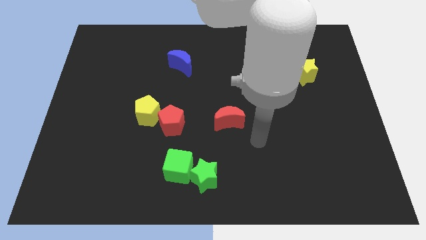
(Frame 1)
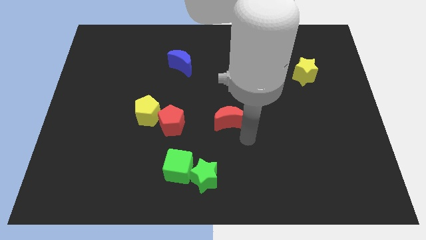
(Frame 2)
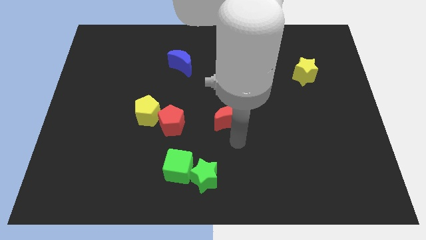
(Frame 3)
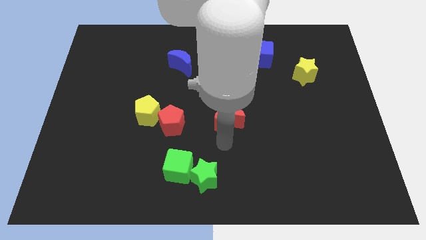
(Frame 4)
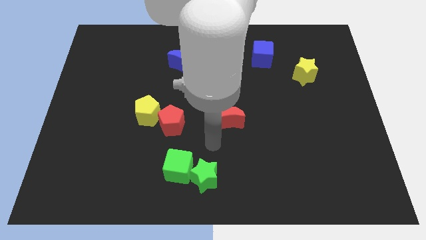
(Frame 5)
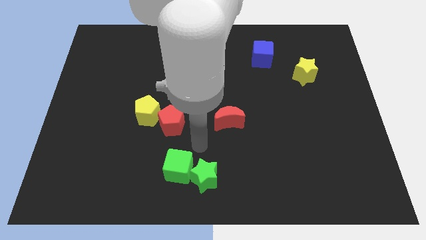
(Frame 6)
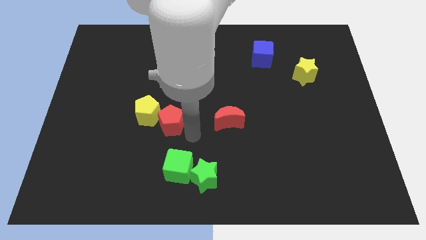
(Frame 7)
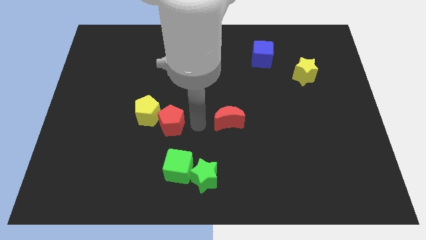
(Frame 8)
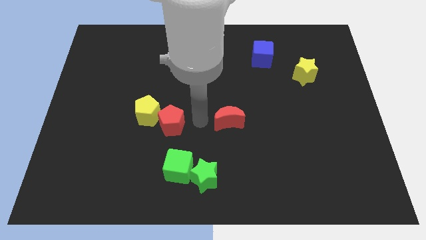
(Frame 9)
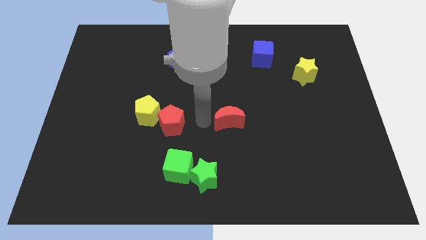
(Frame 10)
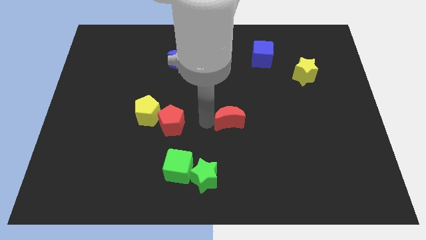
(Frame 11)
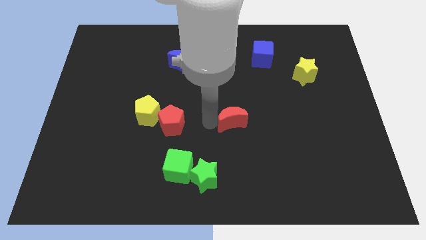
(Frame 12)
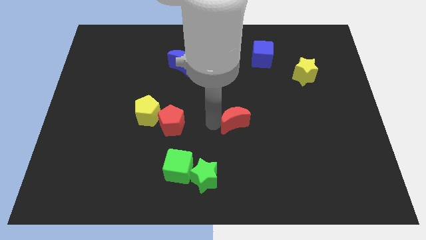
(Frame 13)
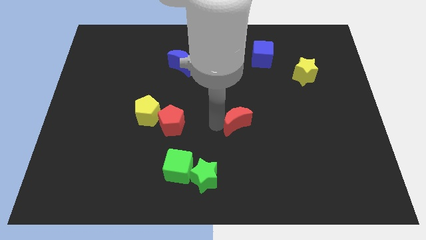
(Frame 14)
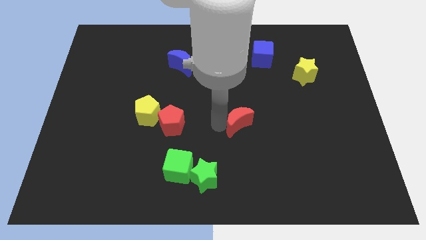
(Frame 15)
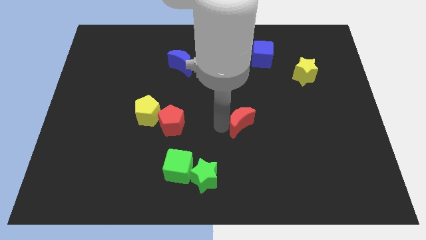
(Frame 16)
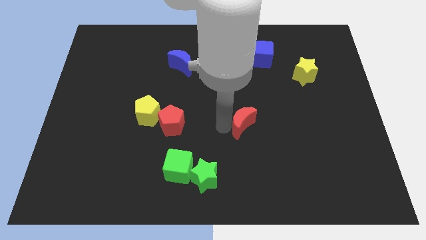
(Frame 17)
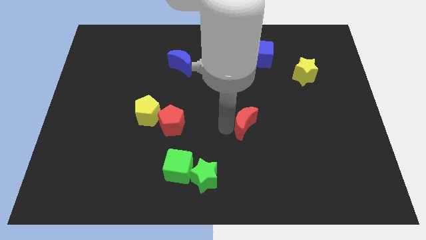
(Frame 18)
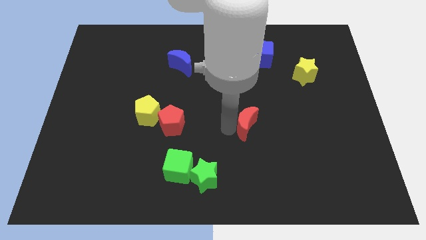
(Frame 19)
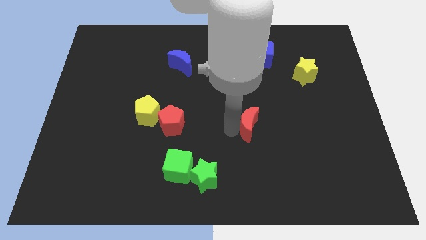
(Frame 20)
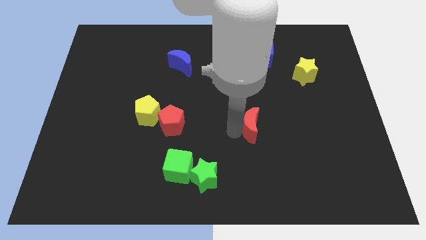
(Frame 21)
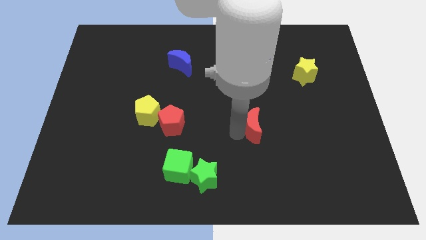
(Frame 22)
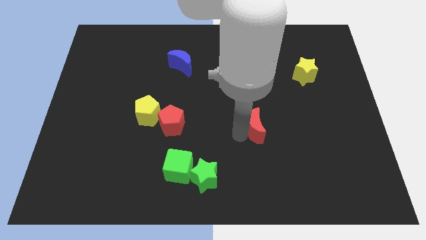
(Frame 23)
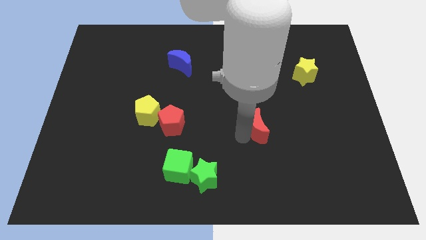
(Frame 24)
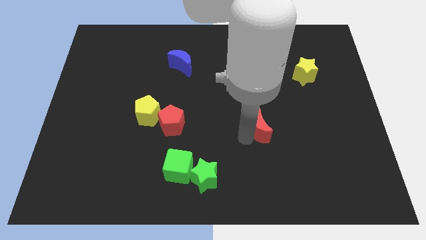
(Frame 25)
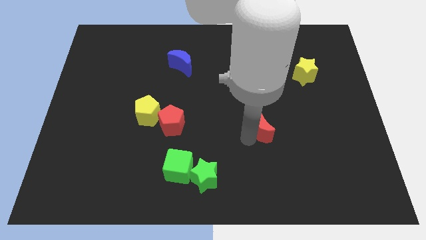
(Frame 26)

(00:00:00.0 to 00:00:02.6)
slightly move the red moon to the right

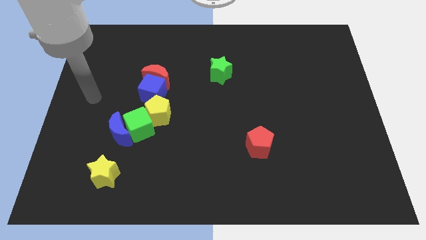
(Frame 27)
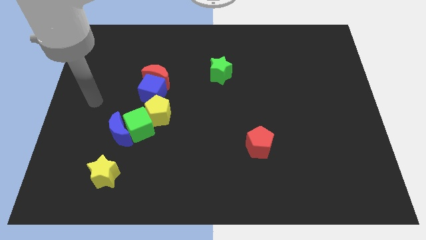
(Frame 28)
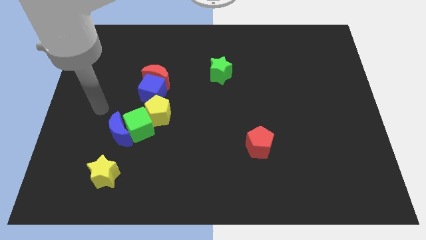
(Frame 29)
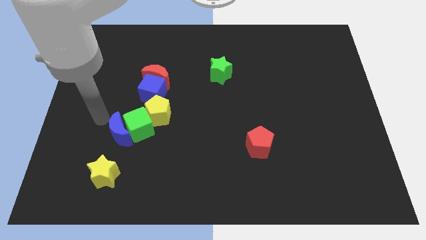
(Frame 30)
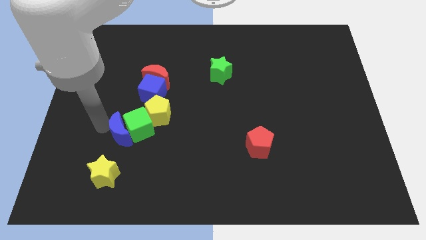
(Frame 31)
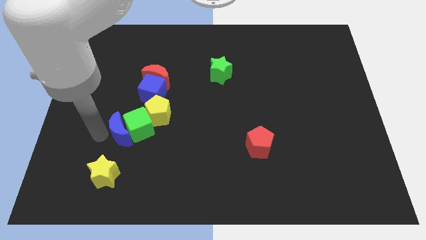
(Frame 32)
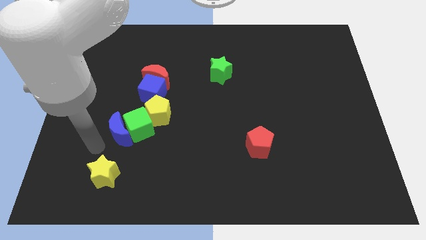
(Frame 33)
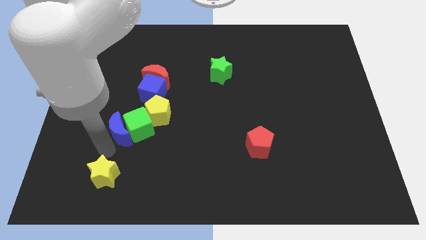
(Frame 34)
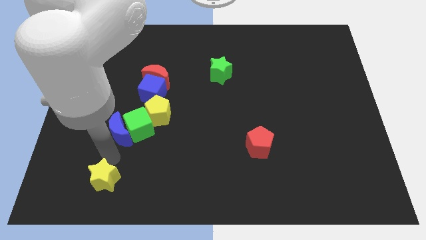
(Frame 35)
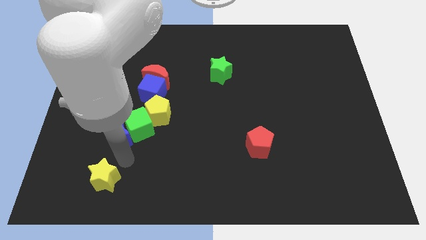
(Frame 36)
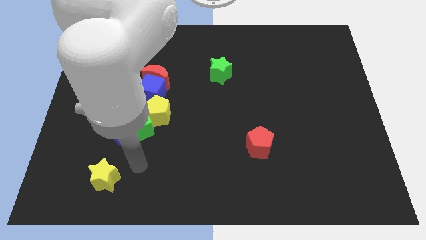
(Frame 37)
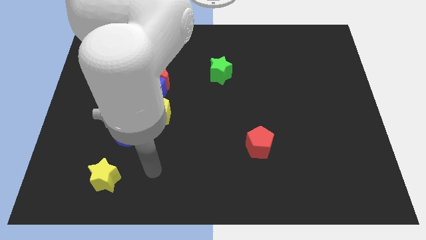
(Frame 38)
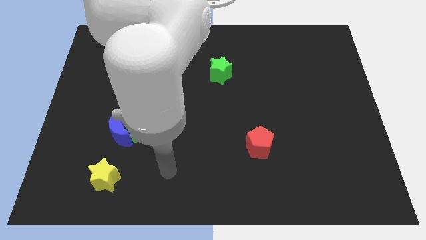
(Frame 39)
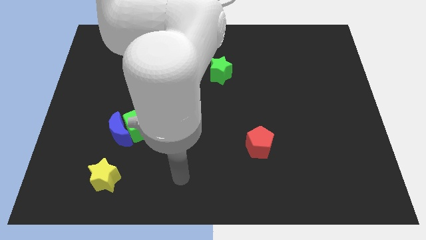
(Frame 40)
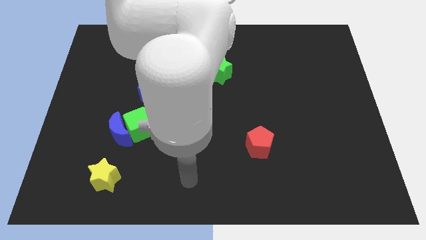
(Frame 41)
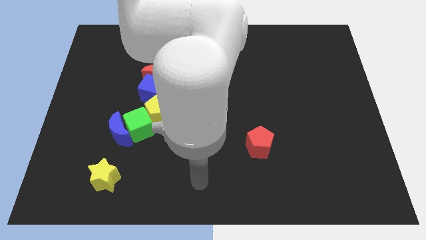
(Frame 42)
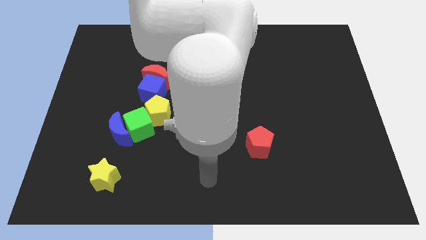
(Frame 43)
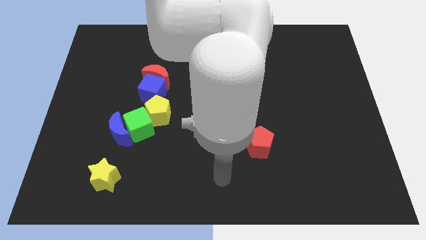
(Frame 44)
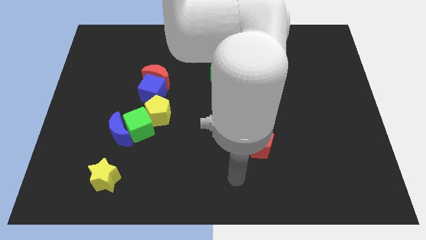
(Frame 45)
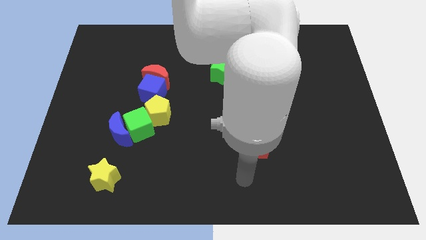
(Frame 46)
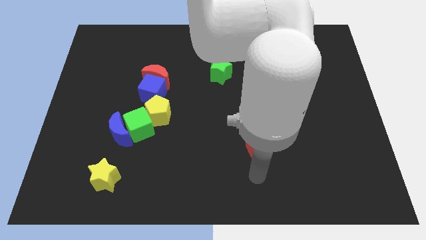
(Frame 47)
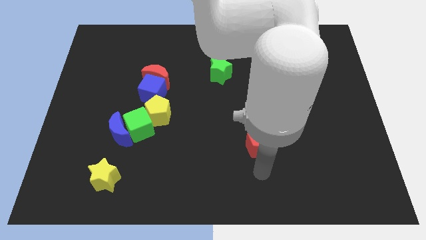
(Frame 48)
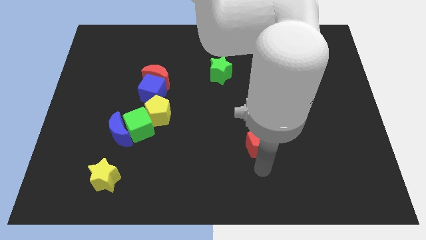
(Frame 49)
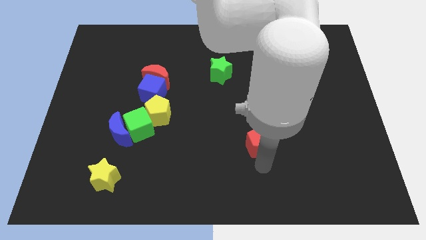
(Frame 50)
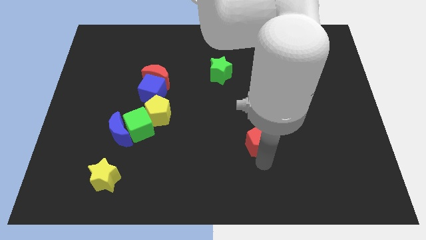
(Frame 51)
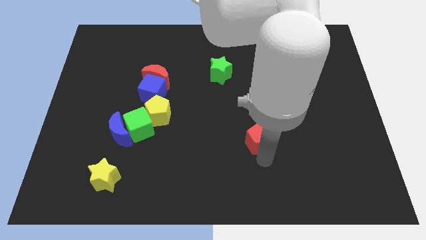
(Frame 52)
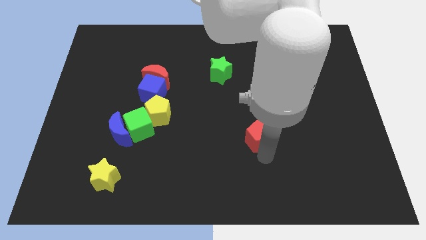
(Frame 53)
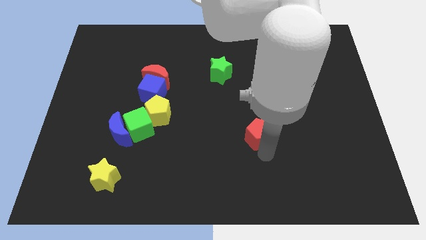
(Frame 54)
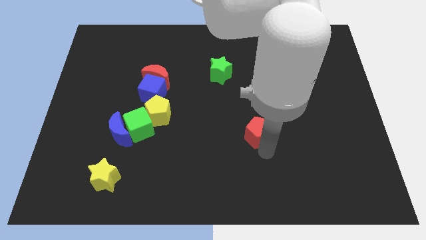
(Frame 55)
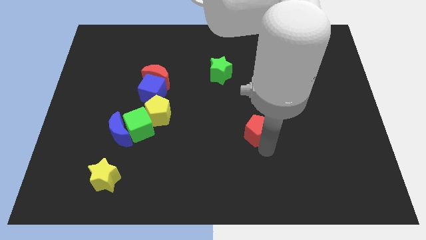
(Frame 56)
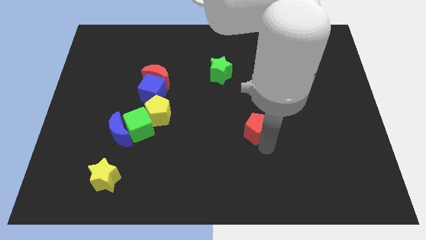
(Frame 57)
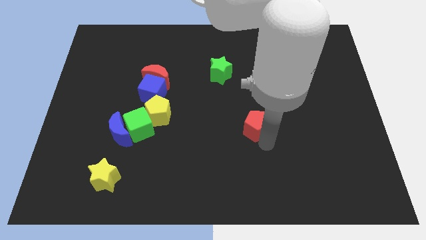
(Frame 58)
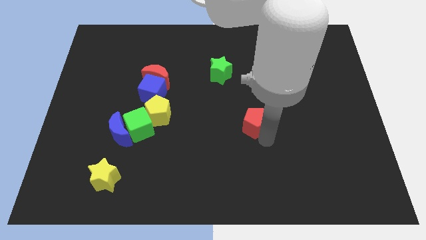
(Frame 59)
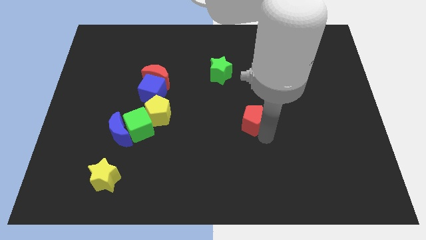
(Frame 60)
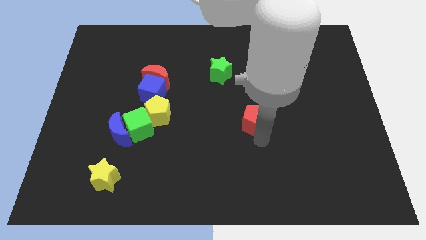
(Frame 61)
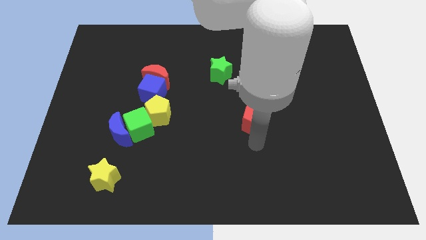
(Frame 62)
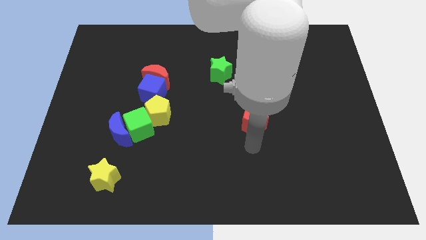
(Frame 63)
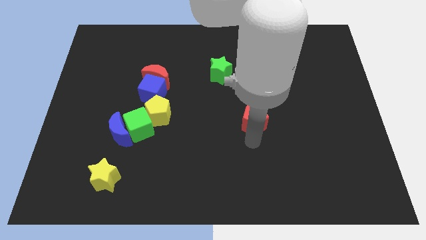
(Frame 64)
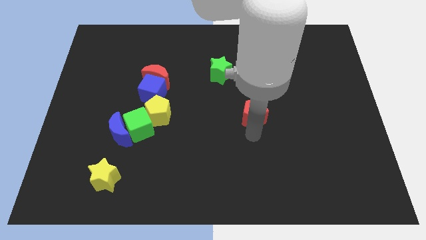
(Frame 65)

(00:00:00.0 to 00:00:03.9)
slightly move the red pentagon upwards

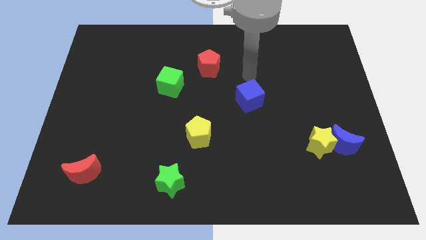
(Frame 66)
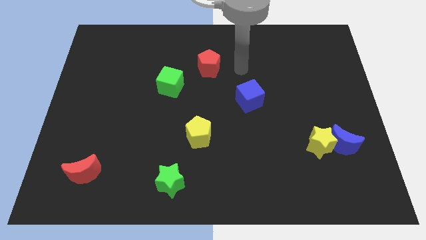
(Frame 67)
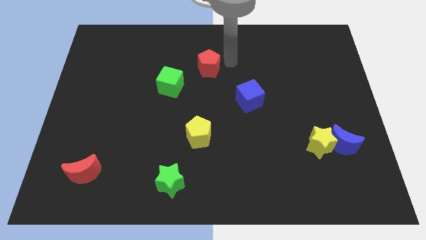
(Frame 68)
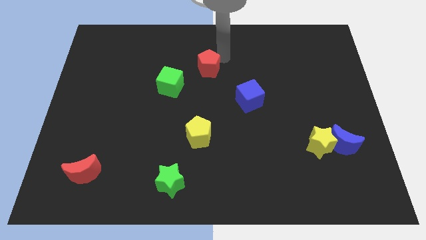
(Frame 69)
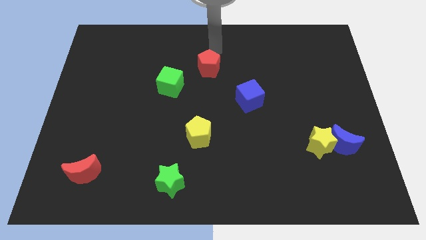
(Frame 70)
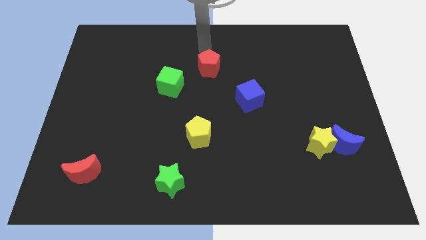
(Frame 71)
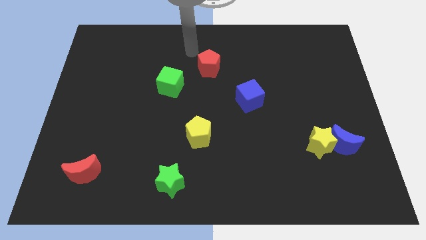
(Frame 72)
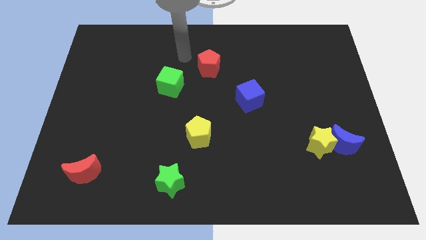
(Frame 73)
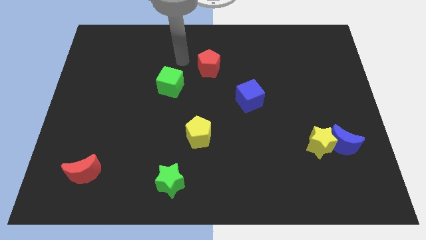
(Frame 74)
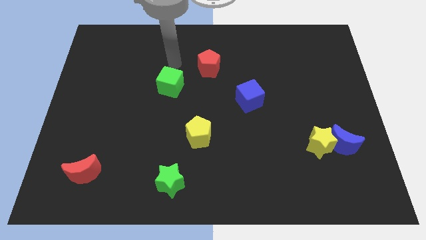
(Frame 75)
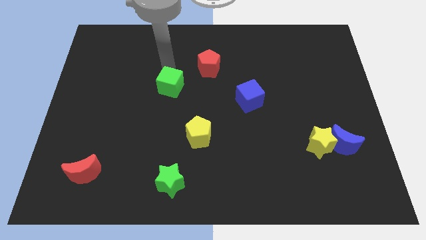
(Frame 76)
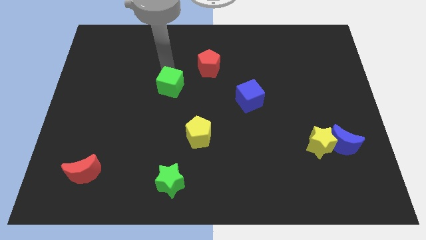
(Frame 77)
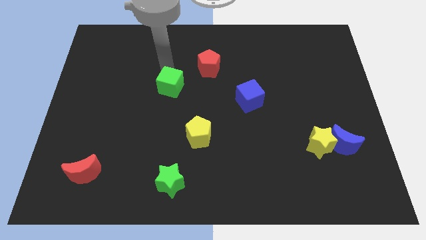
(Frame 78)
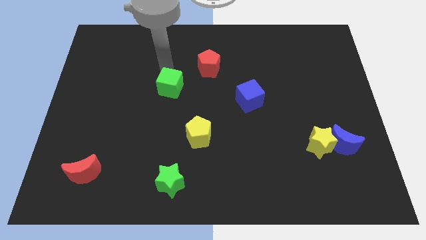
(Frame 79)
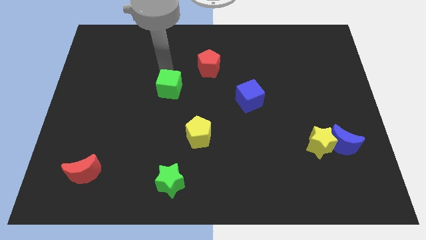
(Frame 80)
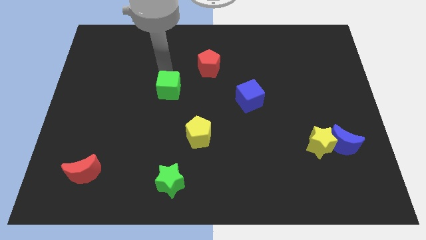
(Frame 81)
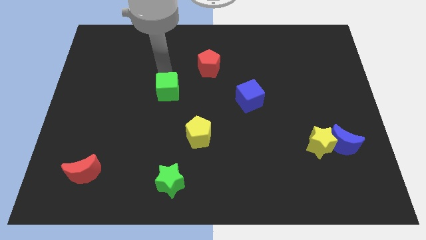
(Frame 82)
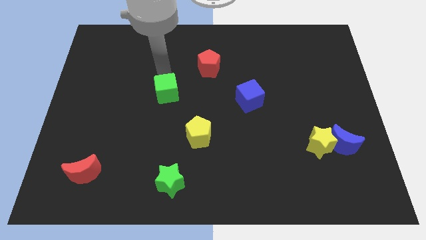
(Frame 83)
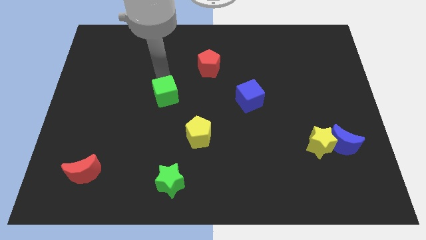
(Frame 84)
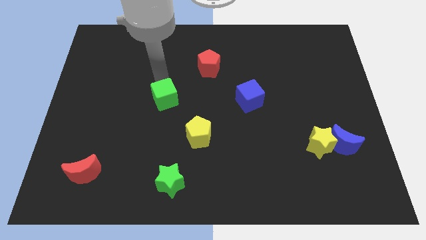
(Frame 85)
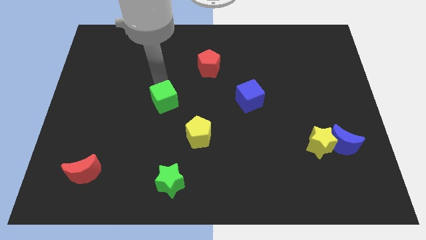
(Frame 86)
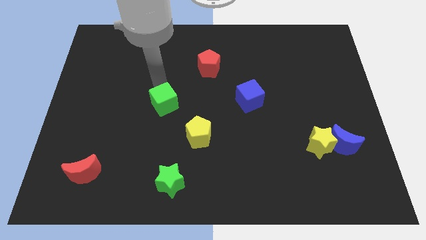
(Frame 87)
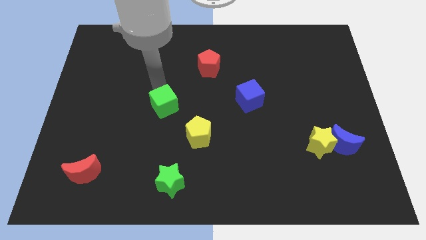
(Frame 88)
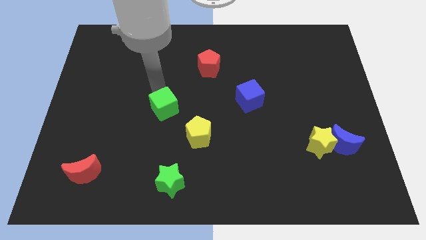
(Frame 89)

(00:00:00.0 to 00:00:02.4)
move the green cube a little bit down
